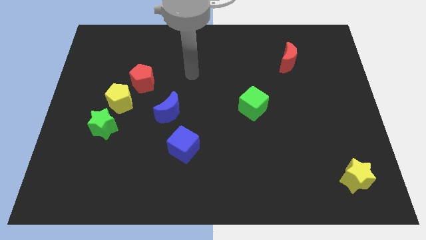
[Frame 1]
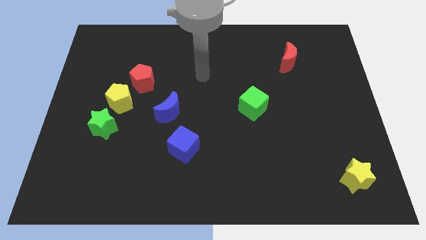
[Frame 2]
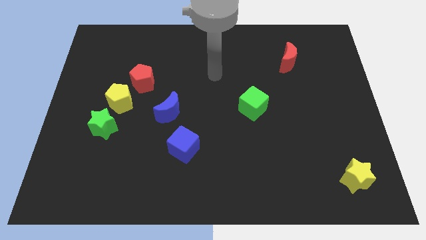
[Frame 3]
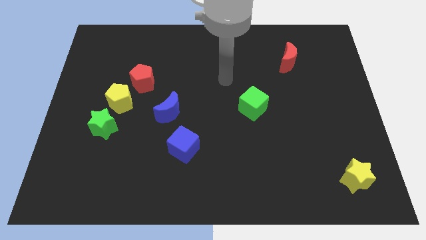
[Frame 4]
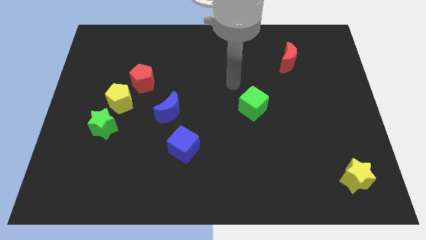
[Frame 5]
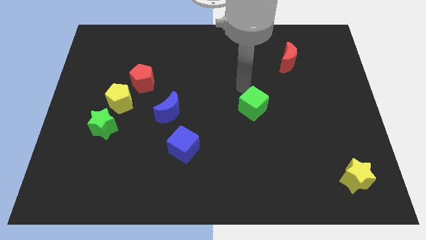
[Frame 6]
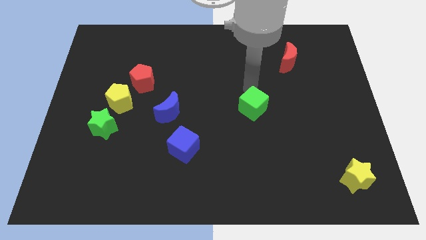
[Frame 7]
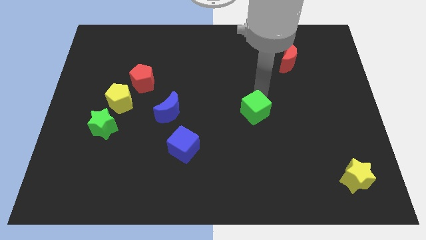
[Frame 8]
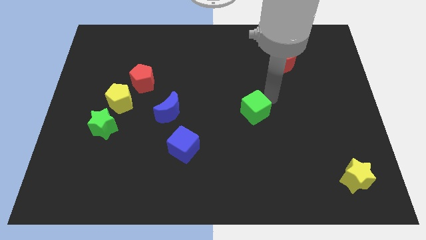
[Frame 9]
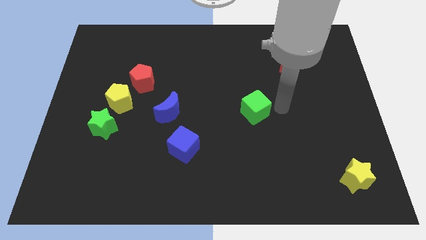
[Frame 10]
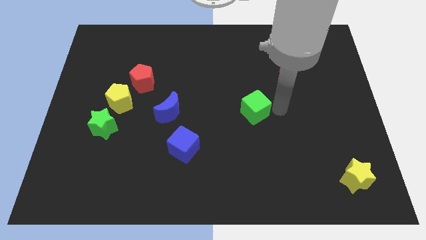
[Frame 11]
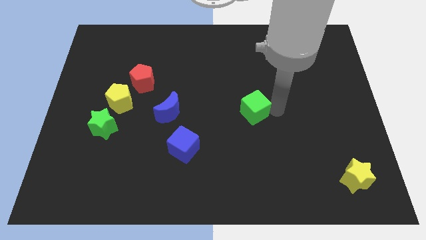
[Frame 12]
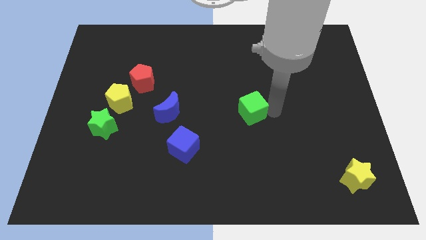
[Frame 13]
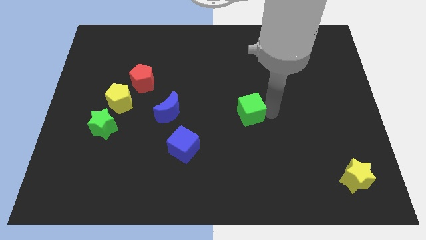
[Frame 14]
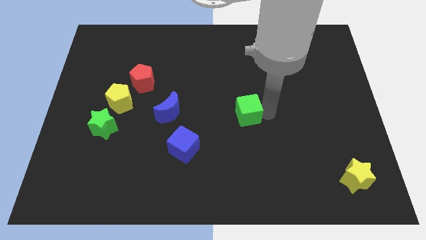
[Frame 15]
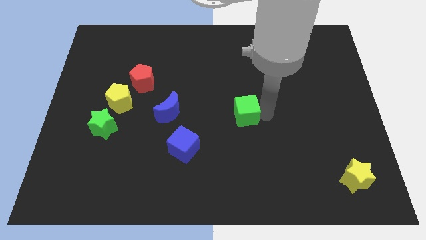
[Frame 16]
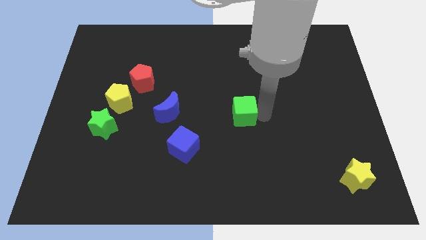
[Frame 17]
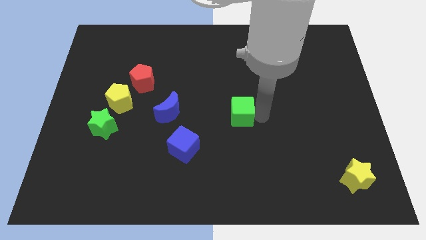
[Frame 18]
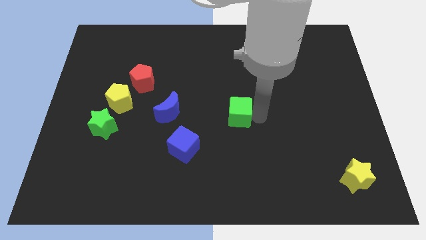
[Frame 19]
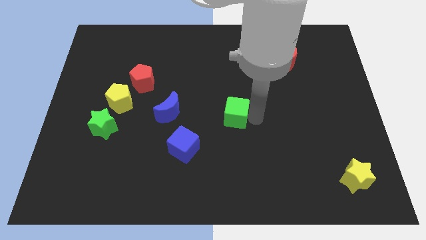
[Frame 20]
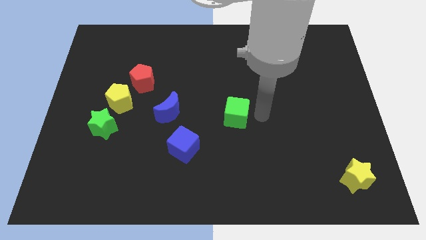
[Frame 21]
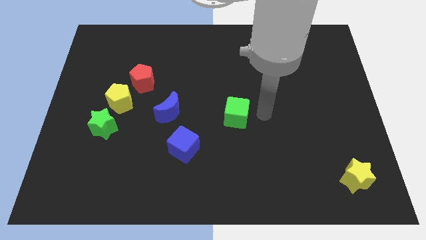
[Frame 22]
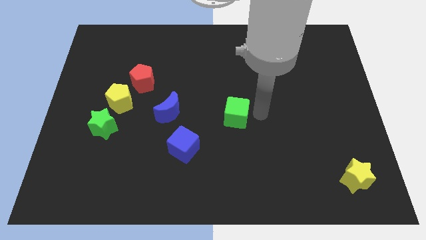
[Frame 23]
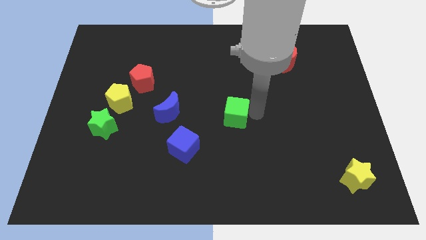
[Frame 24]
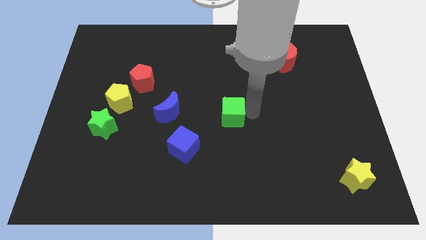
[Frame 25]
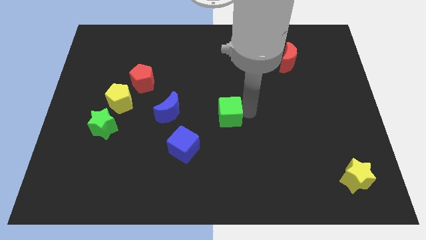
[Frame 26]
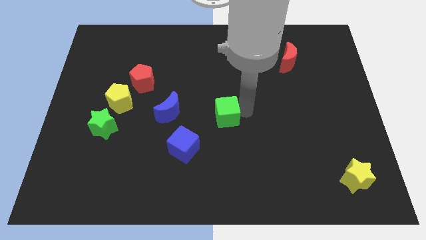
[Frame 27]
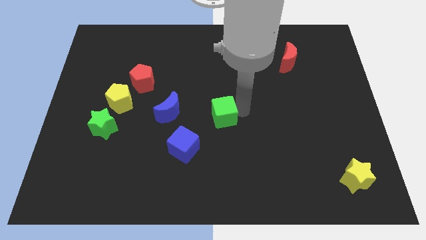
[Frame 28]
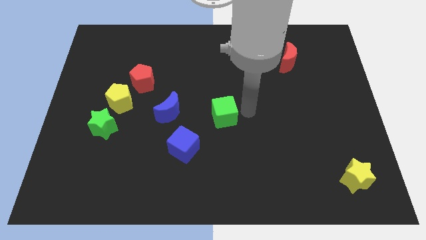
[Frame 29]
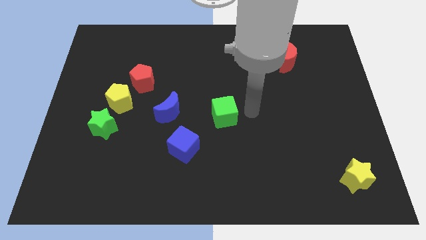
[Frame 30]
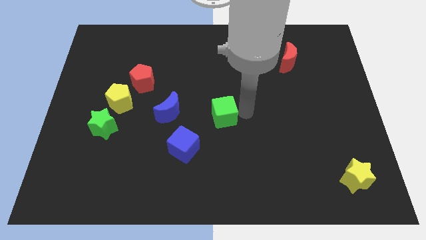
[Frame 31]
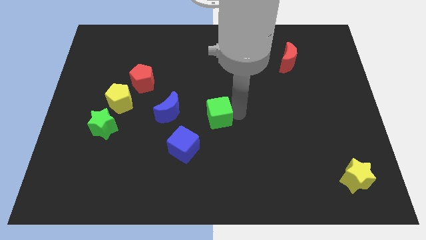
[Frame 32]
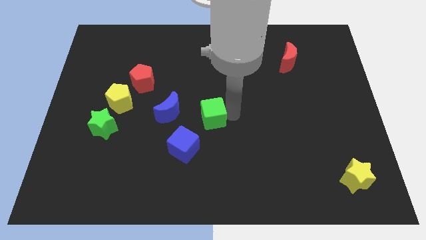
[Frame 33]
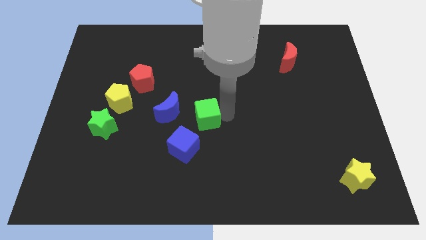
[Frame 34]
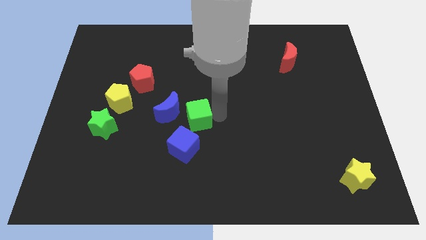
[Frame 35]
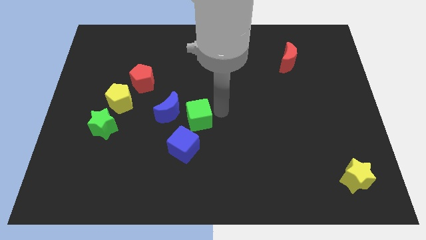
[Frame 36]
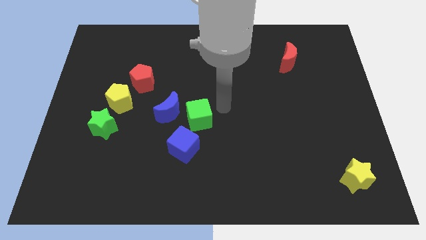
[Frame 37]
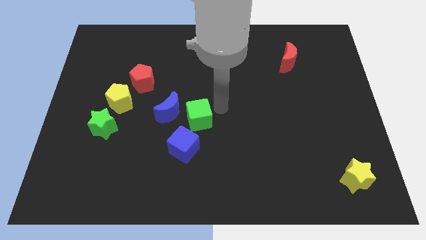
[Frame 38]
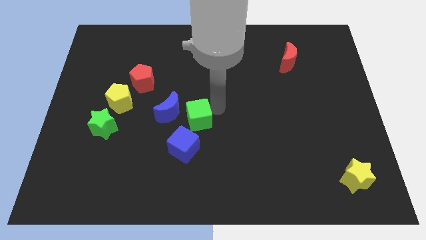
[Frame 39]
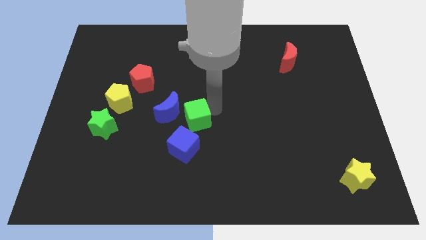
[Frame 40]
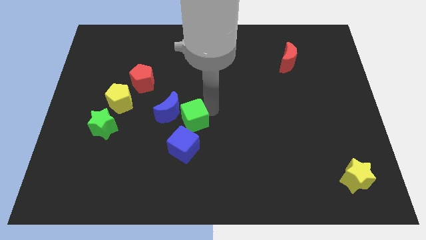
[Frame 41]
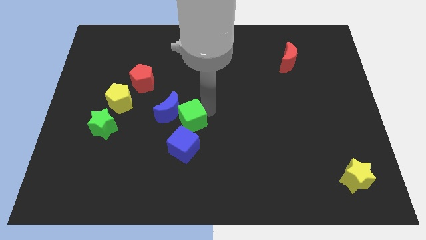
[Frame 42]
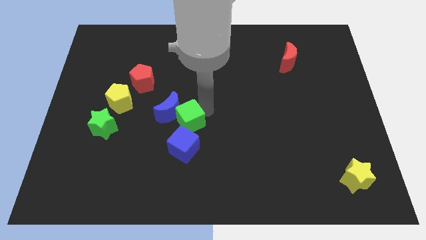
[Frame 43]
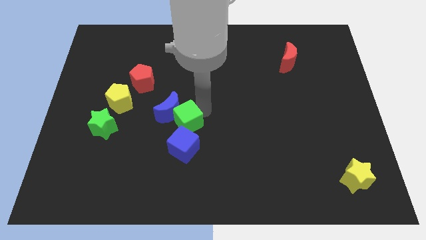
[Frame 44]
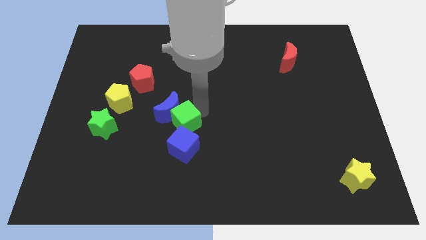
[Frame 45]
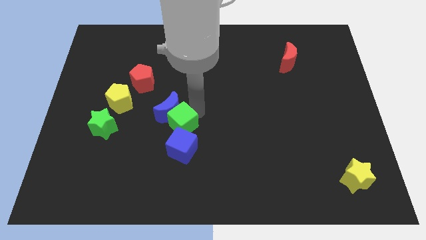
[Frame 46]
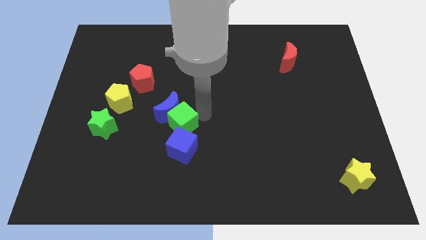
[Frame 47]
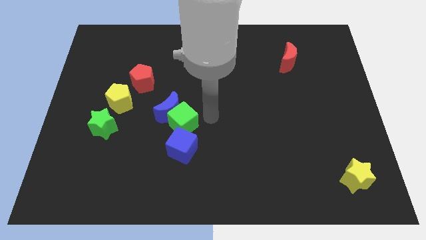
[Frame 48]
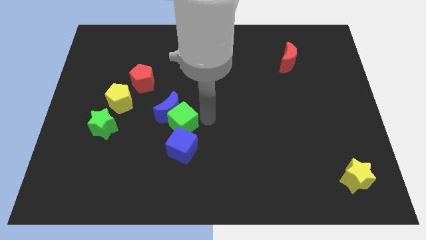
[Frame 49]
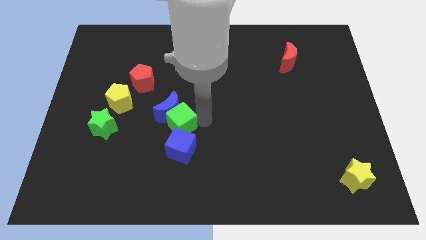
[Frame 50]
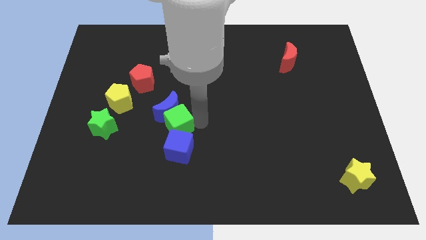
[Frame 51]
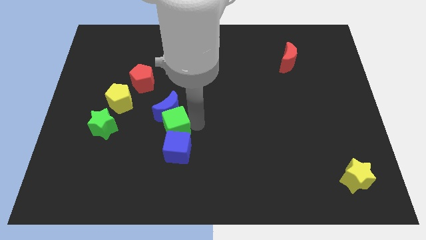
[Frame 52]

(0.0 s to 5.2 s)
push the green cube to the bottom left side of the blue moon

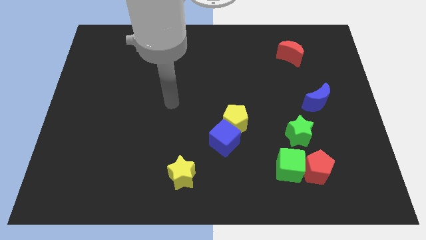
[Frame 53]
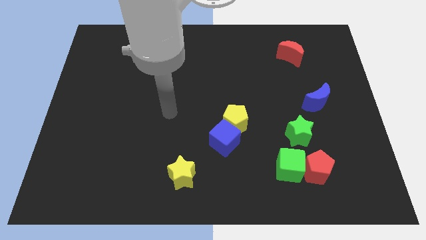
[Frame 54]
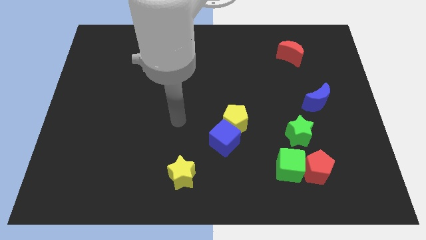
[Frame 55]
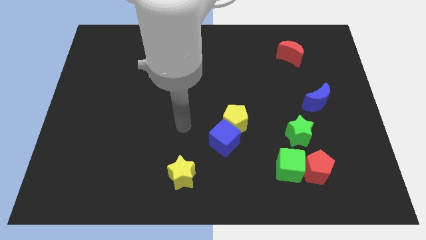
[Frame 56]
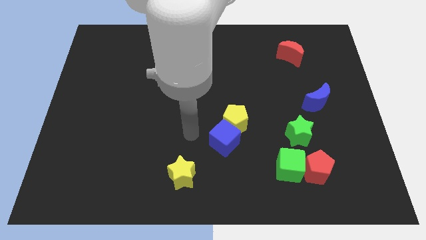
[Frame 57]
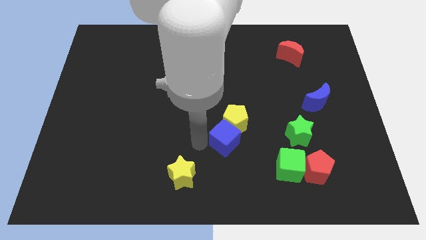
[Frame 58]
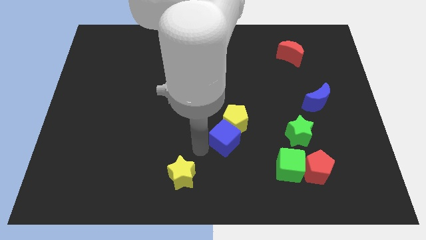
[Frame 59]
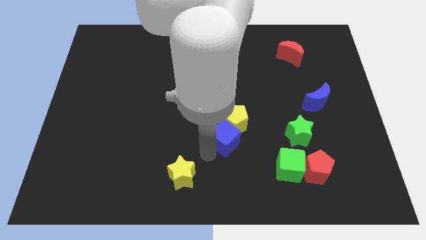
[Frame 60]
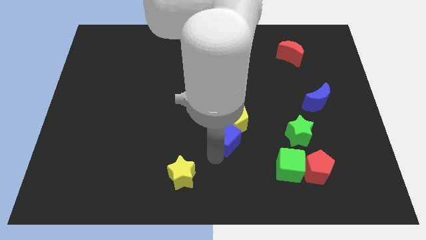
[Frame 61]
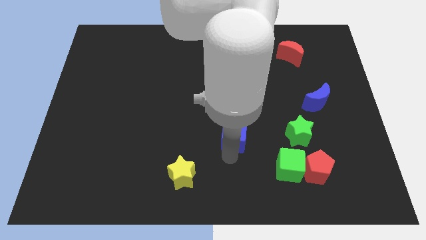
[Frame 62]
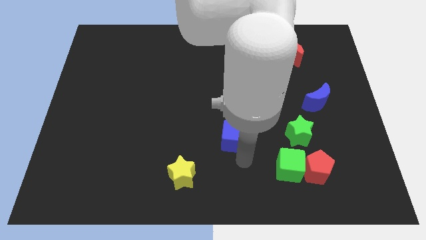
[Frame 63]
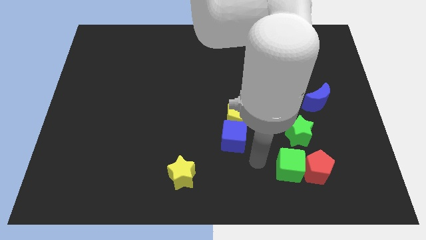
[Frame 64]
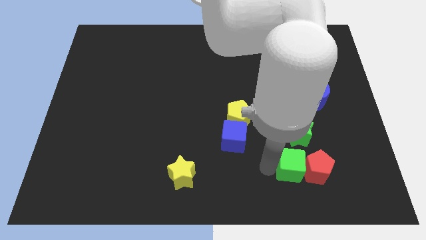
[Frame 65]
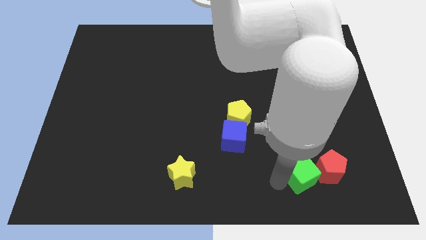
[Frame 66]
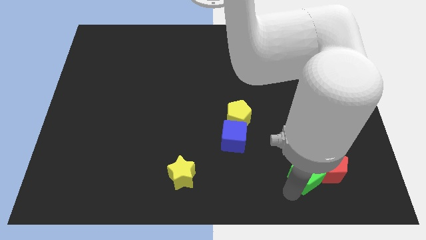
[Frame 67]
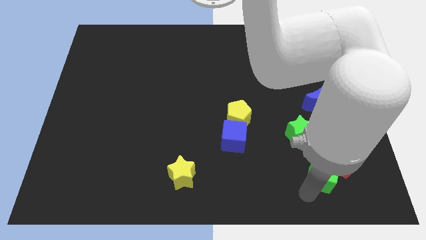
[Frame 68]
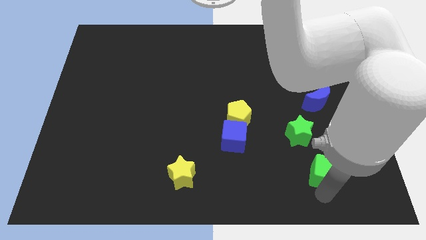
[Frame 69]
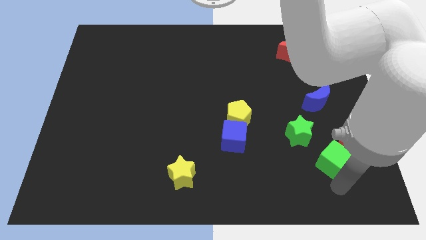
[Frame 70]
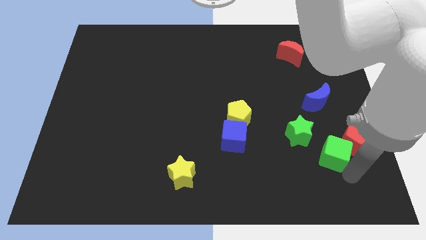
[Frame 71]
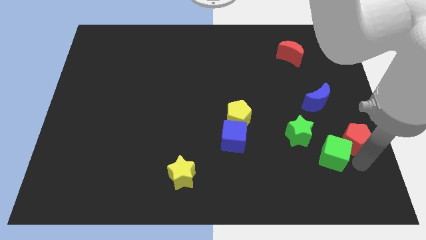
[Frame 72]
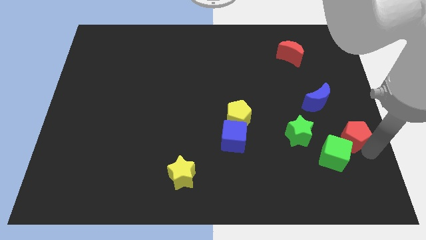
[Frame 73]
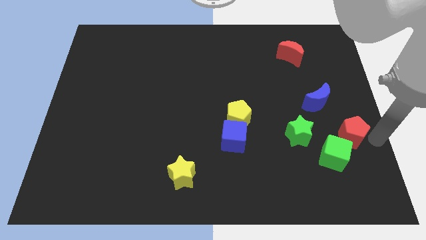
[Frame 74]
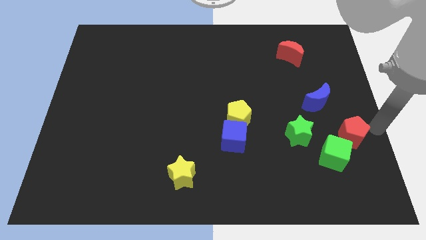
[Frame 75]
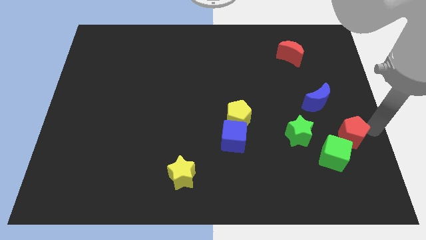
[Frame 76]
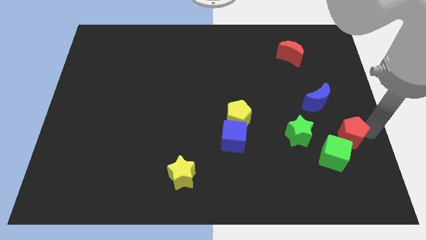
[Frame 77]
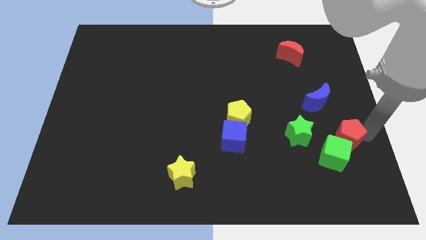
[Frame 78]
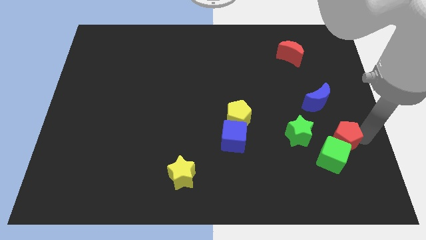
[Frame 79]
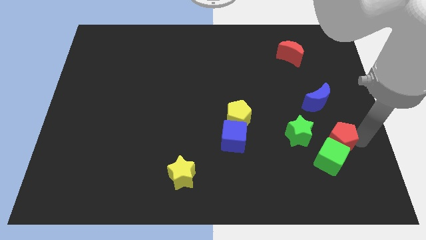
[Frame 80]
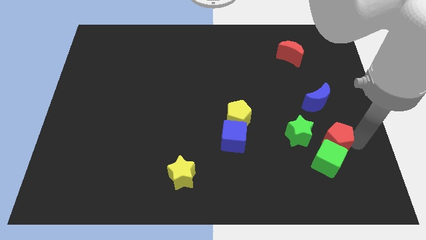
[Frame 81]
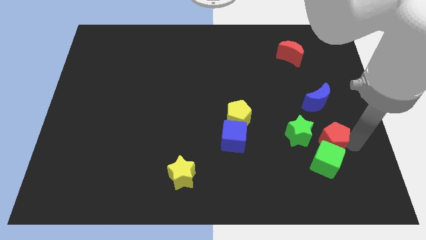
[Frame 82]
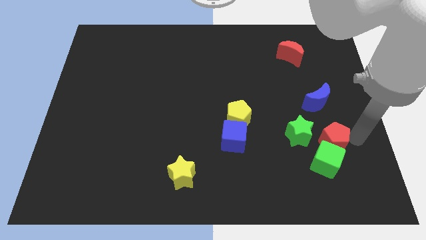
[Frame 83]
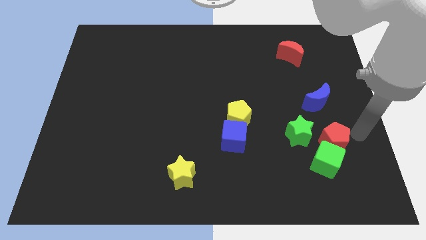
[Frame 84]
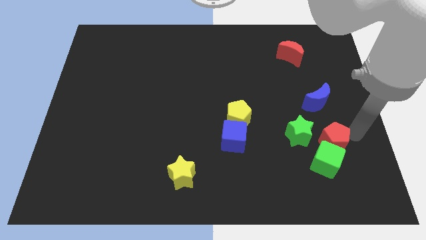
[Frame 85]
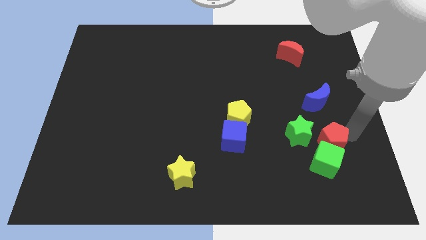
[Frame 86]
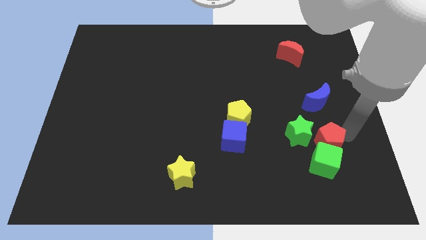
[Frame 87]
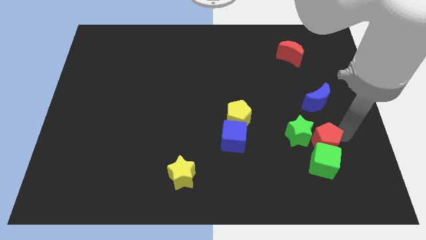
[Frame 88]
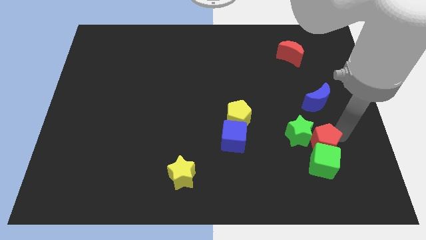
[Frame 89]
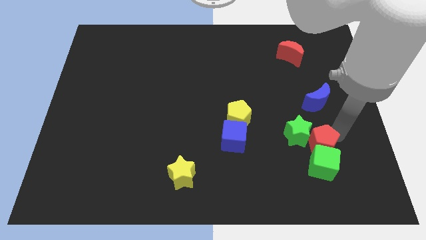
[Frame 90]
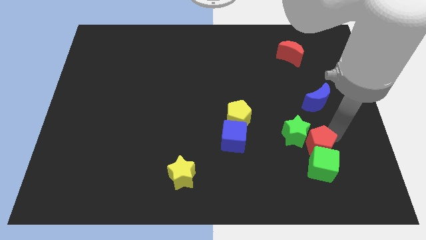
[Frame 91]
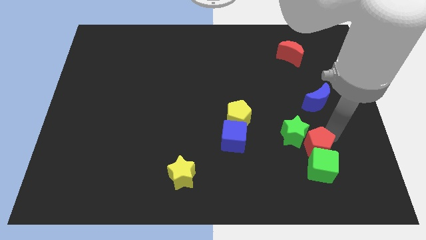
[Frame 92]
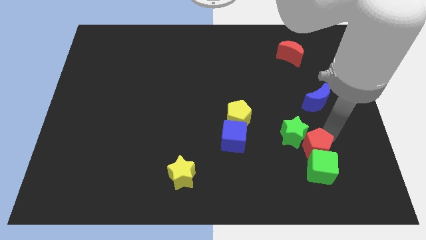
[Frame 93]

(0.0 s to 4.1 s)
move the red pentagon to the top left of the green cube
